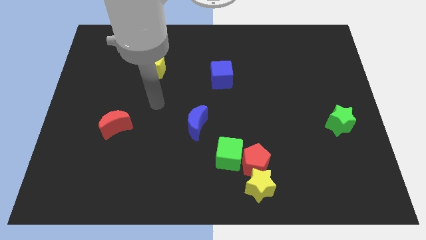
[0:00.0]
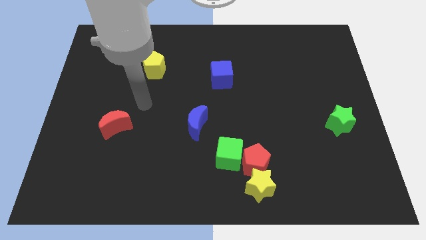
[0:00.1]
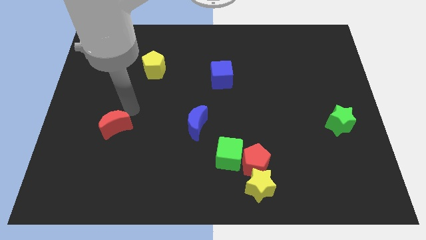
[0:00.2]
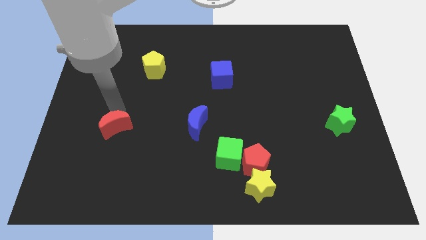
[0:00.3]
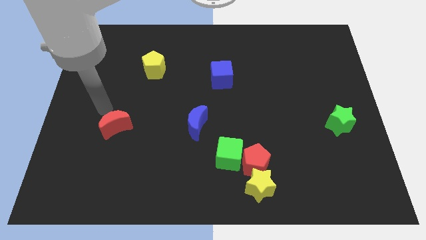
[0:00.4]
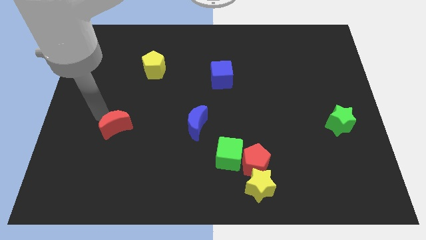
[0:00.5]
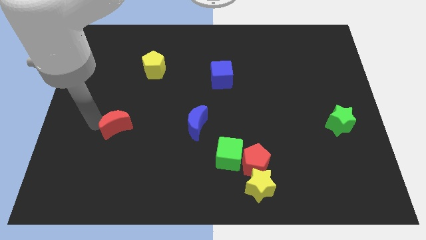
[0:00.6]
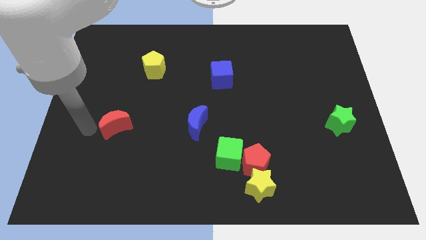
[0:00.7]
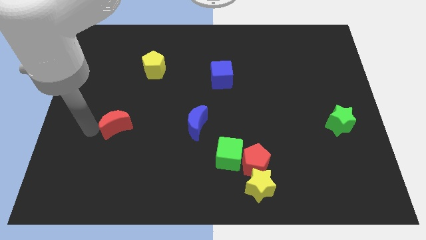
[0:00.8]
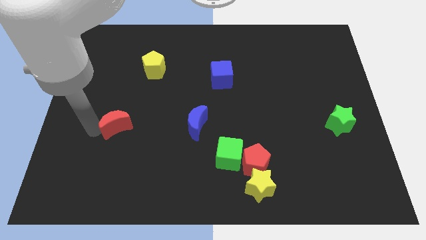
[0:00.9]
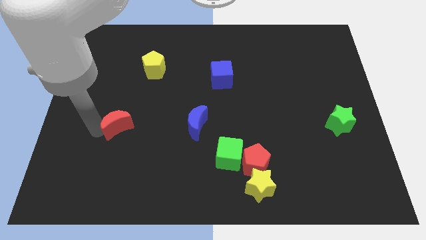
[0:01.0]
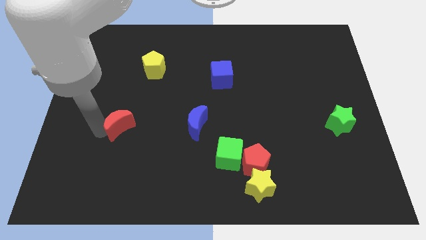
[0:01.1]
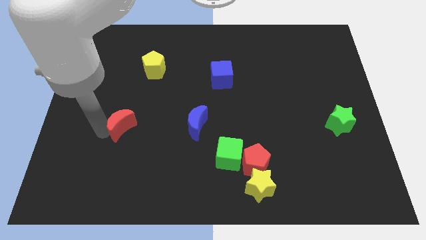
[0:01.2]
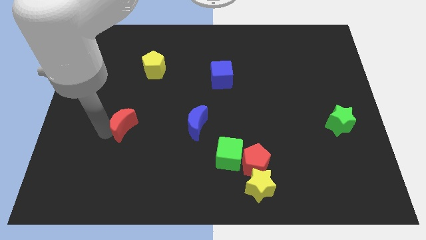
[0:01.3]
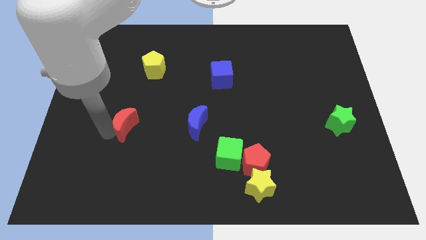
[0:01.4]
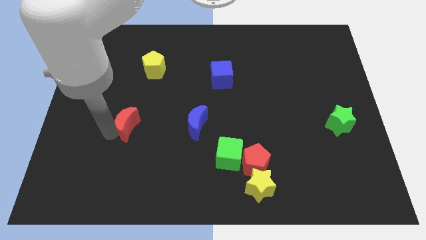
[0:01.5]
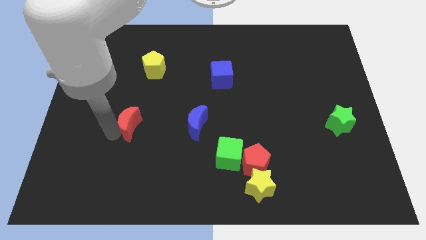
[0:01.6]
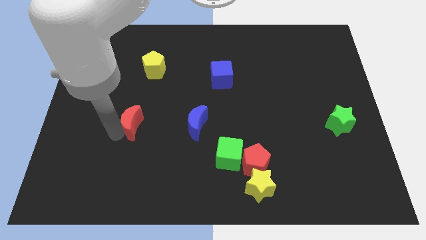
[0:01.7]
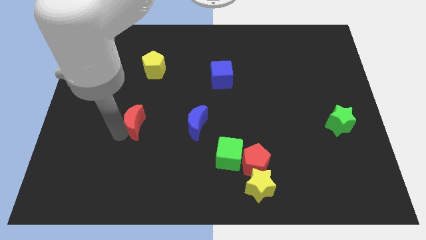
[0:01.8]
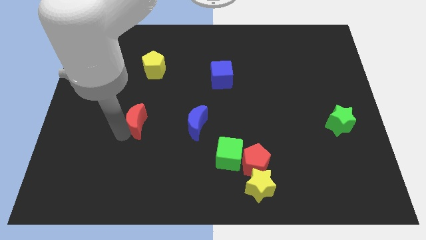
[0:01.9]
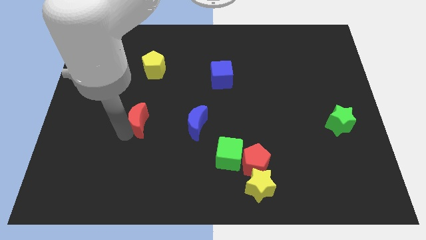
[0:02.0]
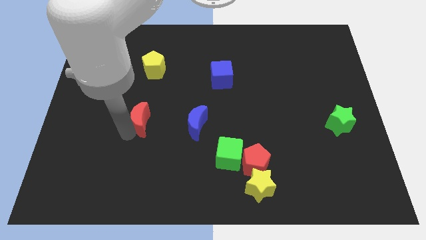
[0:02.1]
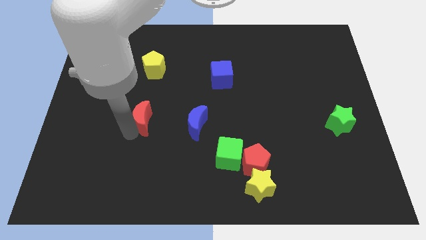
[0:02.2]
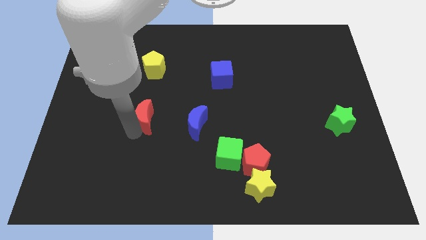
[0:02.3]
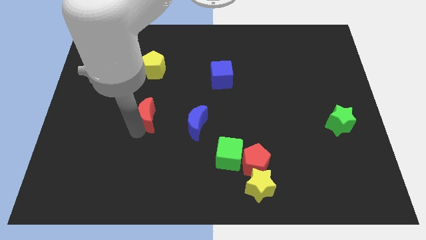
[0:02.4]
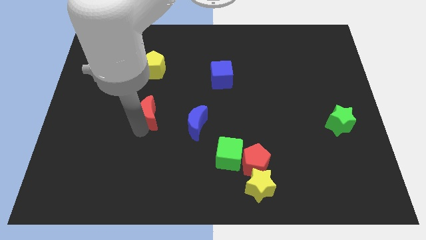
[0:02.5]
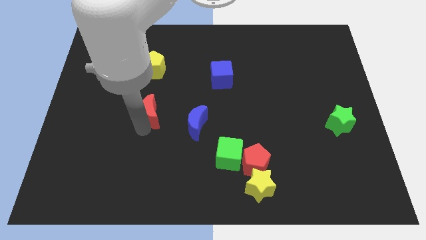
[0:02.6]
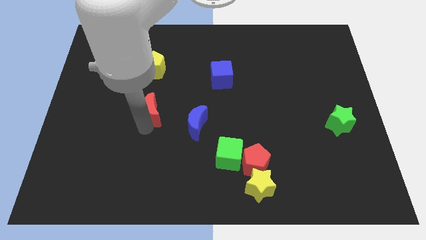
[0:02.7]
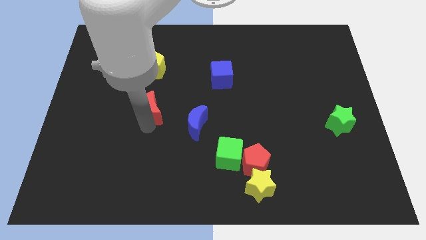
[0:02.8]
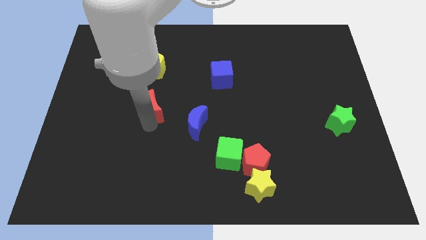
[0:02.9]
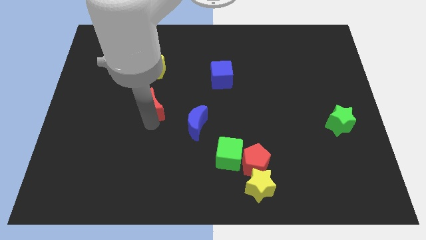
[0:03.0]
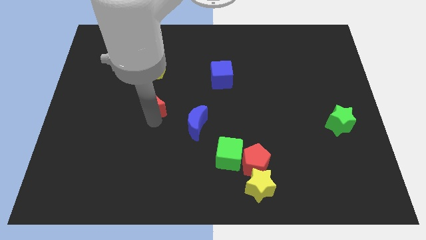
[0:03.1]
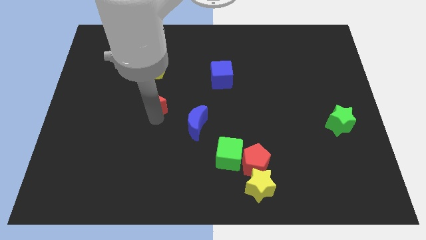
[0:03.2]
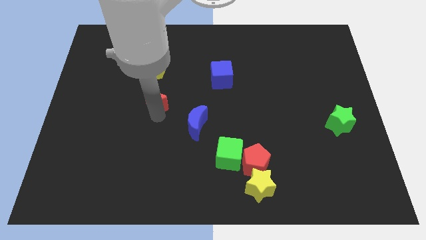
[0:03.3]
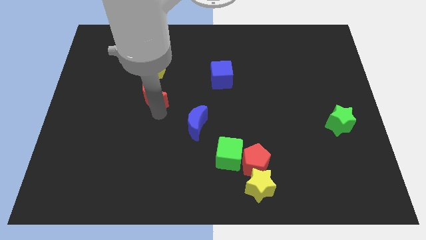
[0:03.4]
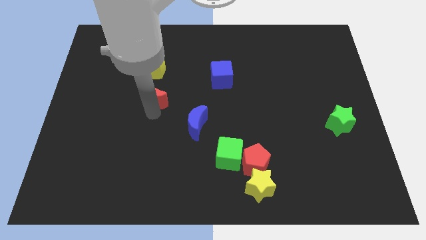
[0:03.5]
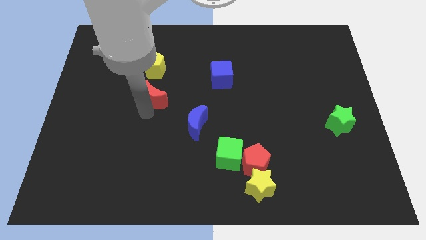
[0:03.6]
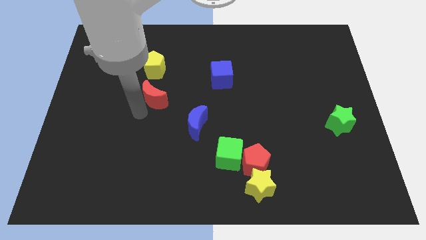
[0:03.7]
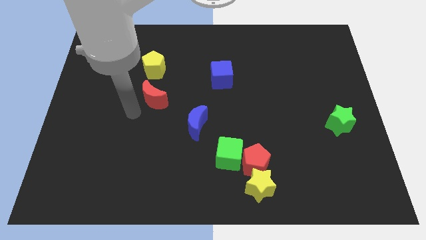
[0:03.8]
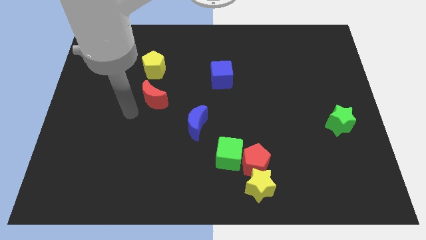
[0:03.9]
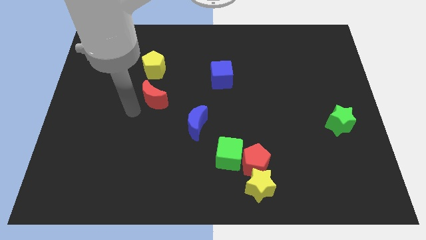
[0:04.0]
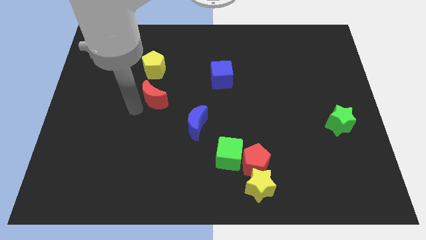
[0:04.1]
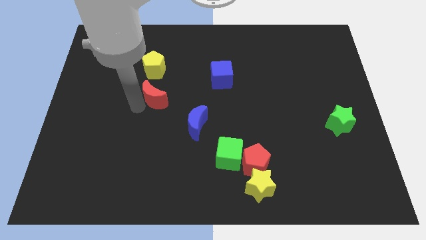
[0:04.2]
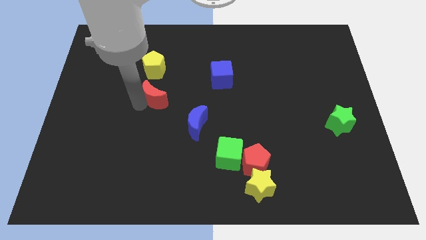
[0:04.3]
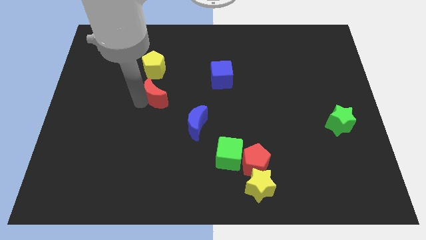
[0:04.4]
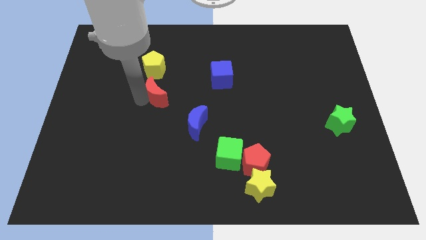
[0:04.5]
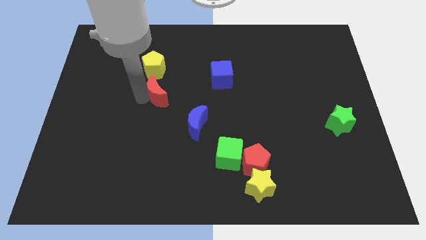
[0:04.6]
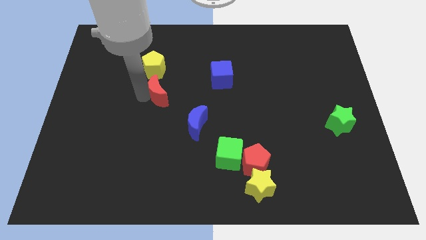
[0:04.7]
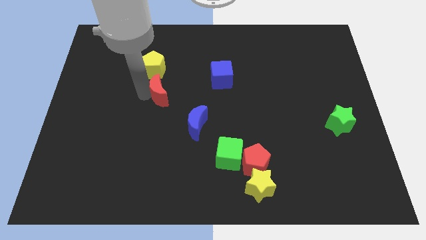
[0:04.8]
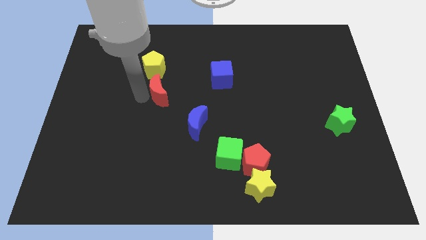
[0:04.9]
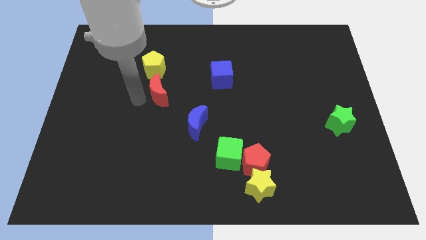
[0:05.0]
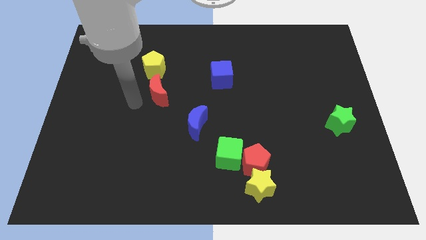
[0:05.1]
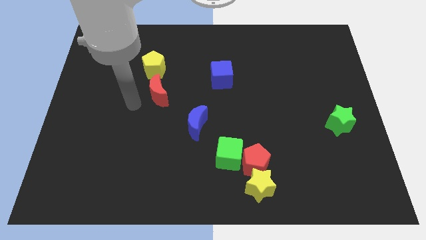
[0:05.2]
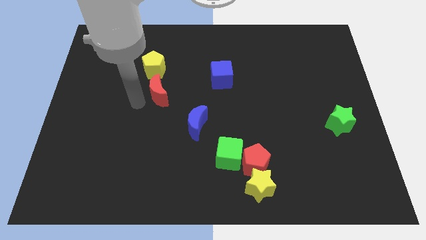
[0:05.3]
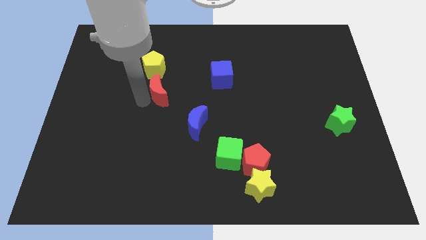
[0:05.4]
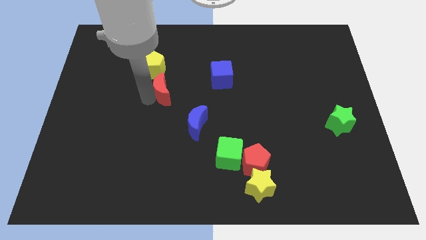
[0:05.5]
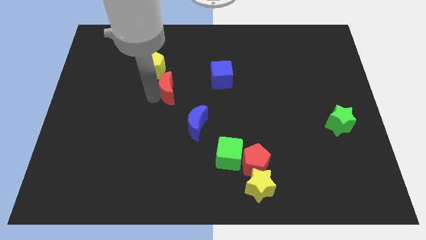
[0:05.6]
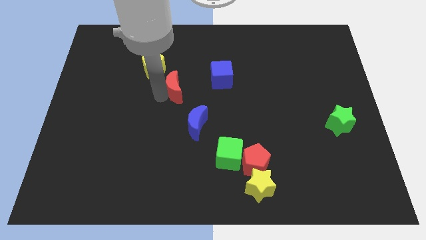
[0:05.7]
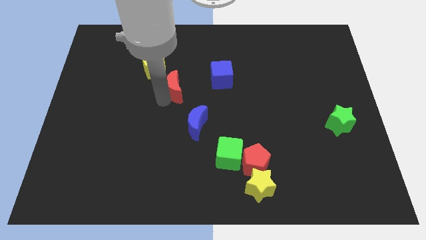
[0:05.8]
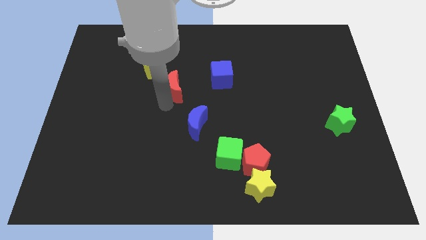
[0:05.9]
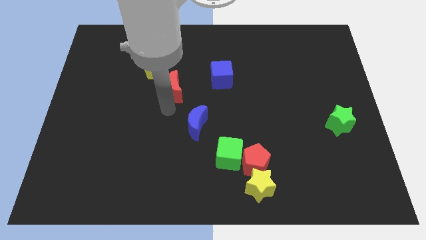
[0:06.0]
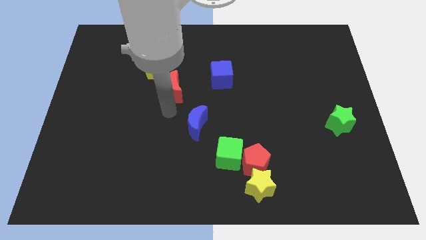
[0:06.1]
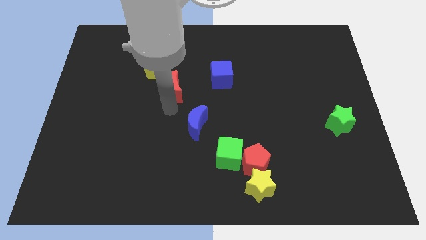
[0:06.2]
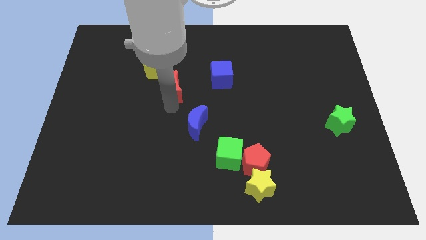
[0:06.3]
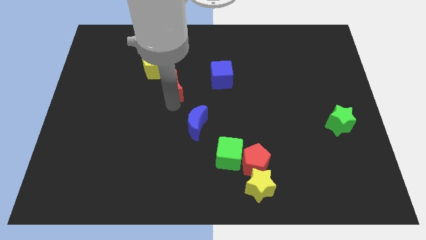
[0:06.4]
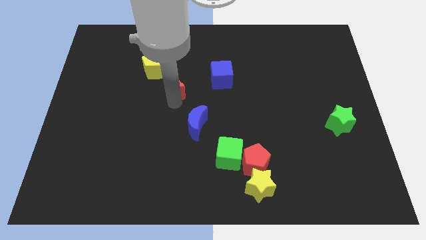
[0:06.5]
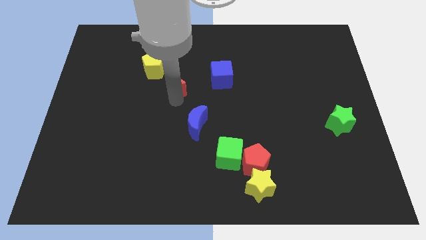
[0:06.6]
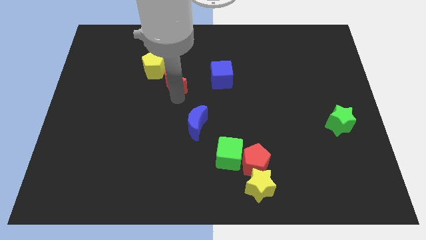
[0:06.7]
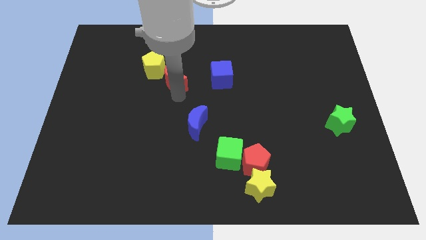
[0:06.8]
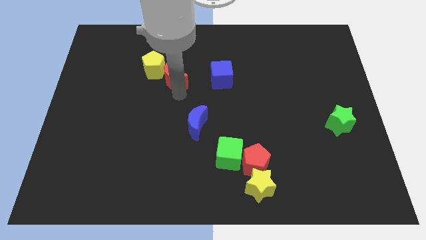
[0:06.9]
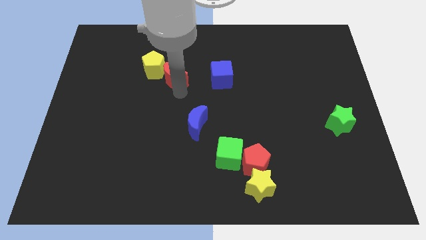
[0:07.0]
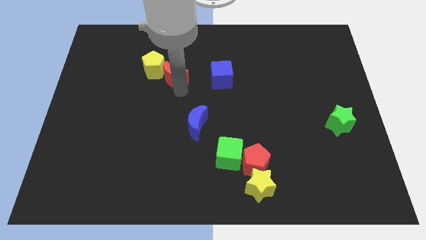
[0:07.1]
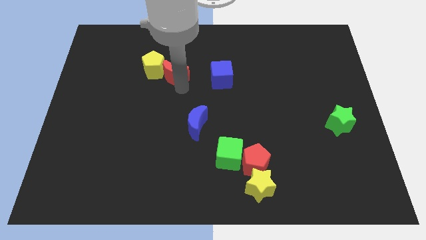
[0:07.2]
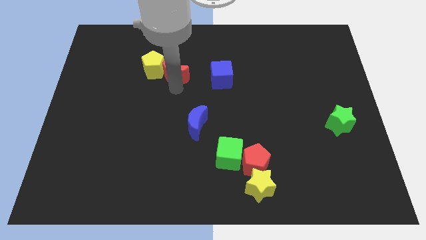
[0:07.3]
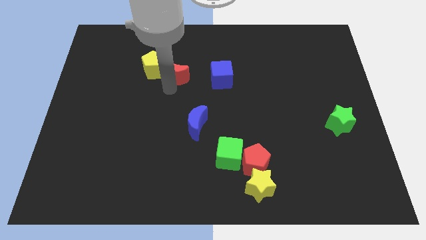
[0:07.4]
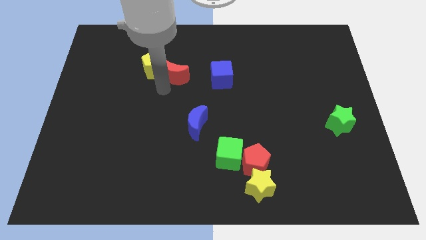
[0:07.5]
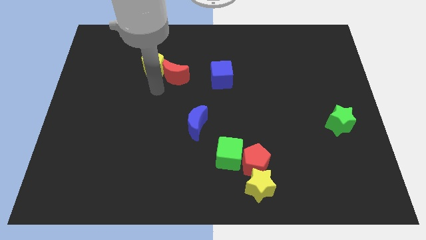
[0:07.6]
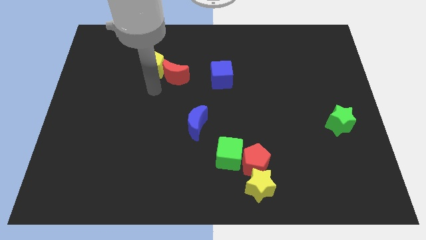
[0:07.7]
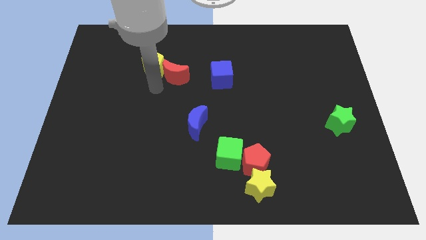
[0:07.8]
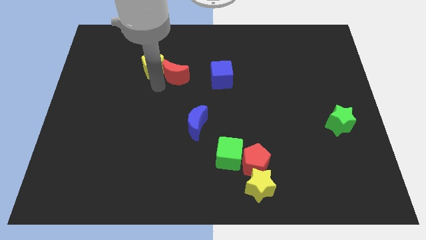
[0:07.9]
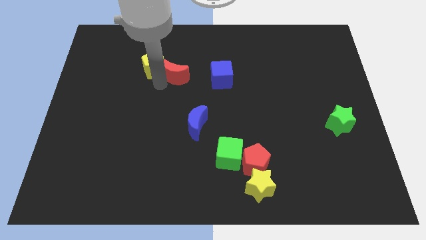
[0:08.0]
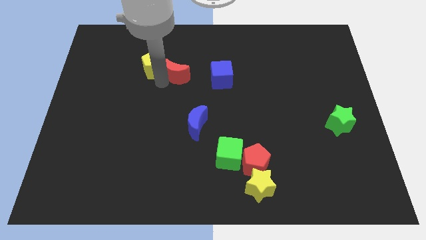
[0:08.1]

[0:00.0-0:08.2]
move the red moon upwards and right diagonally
